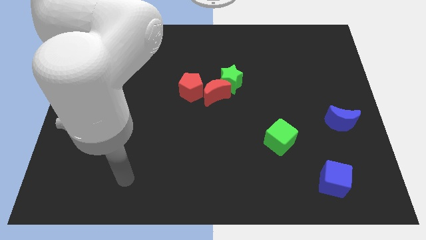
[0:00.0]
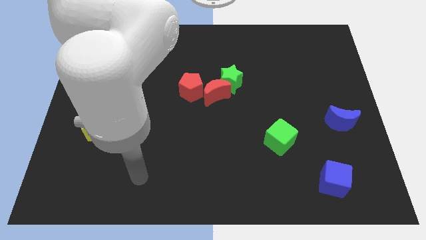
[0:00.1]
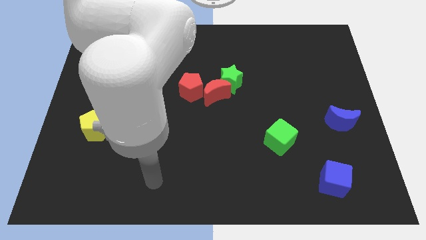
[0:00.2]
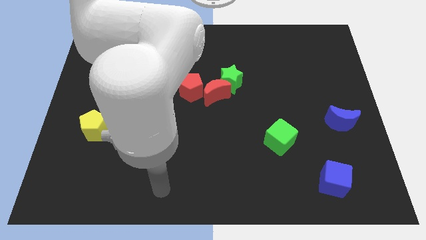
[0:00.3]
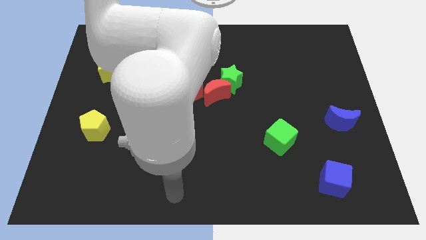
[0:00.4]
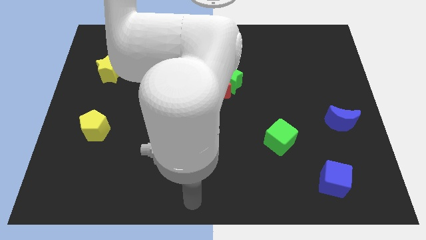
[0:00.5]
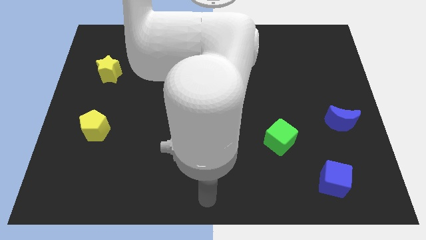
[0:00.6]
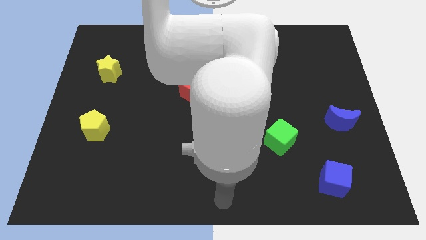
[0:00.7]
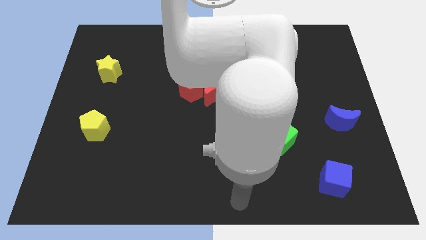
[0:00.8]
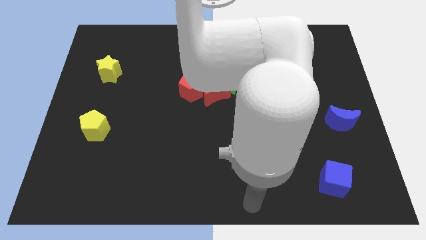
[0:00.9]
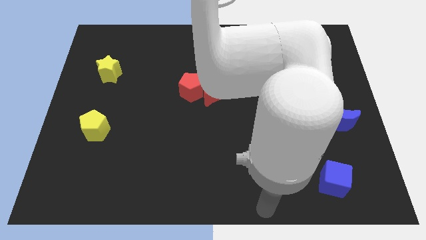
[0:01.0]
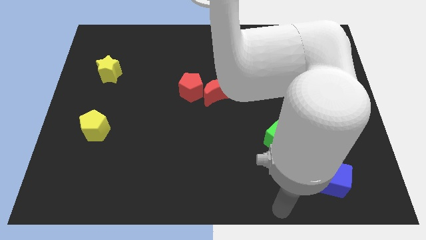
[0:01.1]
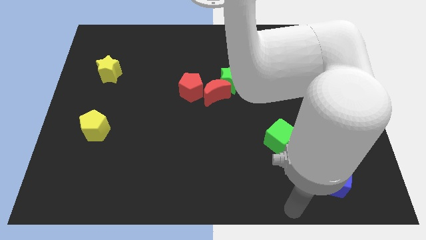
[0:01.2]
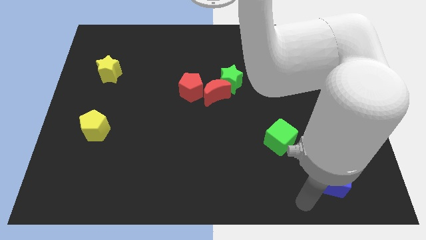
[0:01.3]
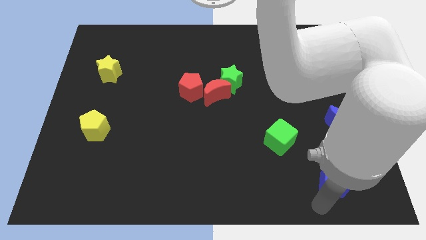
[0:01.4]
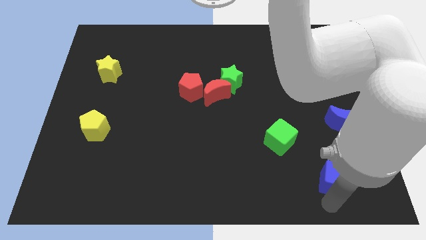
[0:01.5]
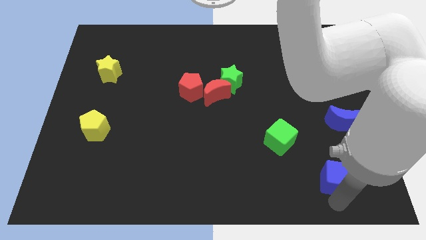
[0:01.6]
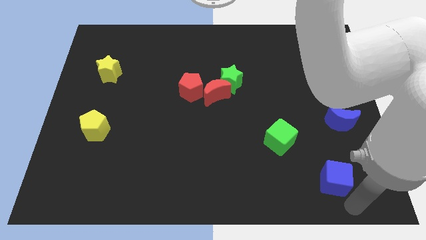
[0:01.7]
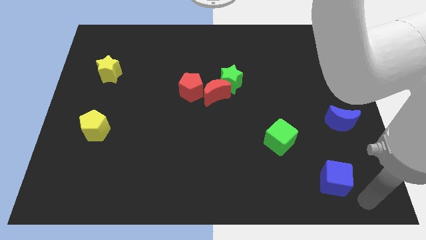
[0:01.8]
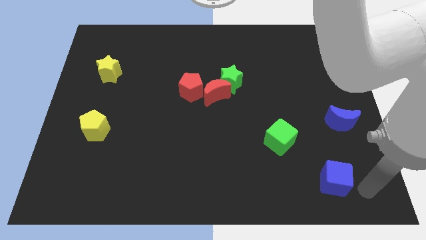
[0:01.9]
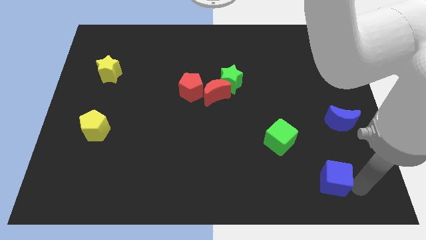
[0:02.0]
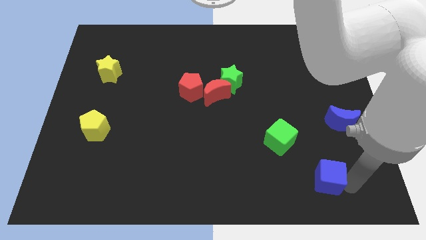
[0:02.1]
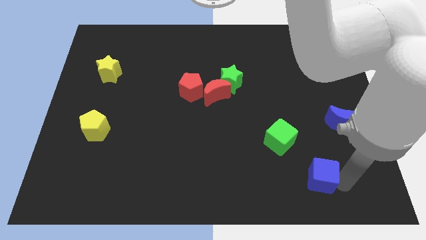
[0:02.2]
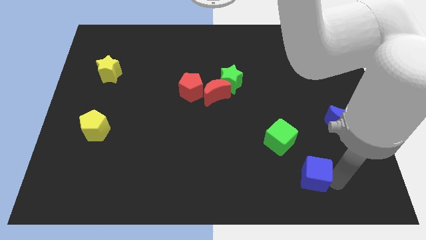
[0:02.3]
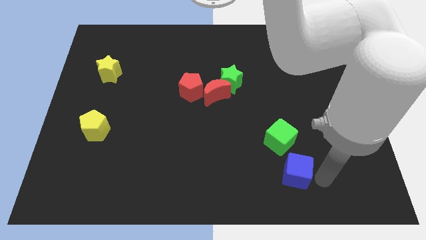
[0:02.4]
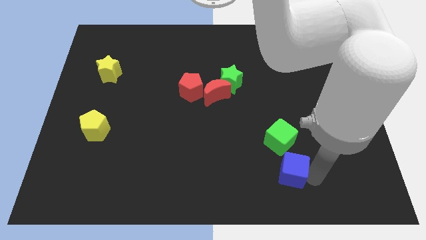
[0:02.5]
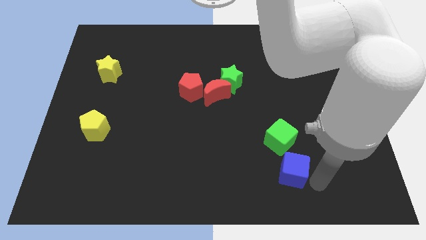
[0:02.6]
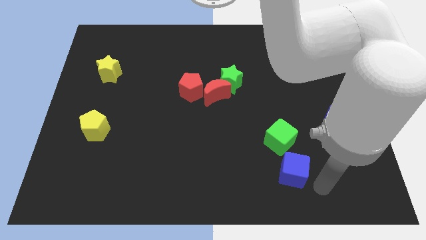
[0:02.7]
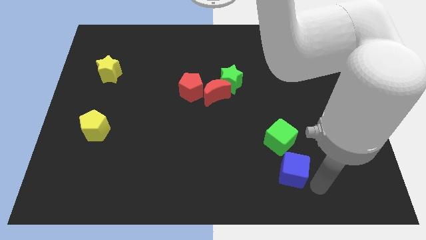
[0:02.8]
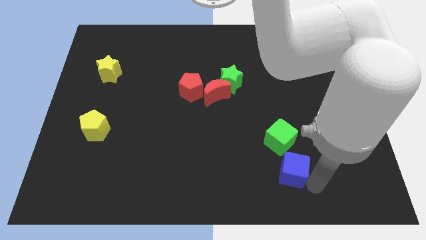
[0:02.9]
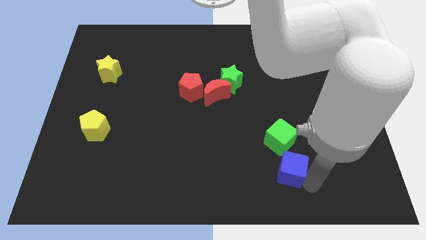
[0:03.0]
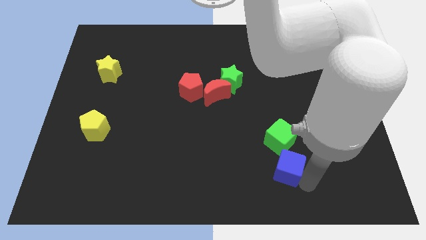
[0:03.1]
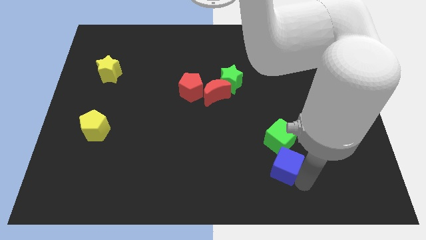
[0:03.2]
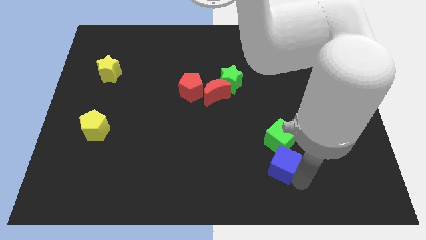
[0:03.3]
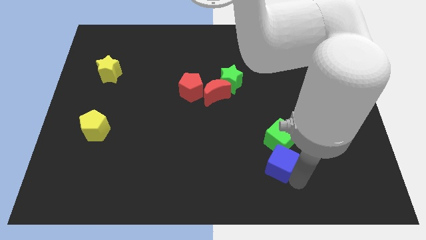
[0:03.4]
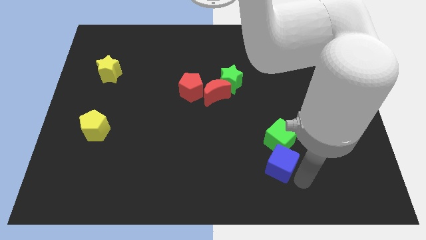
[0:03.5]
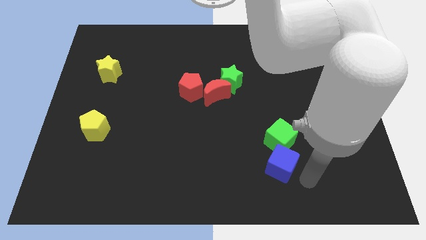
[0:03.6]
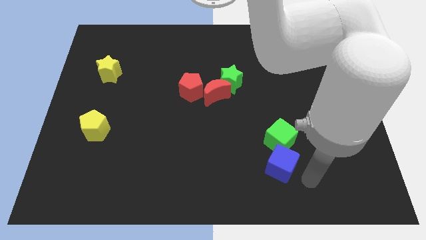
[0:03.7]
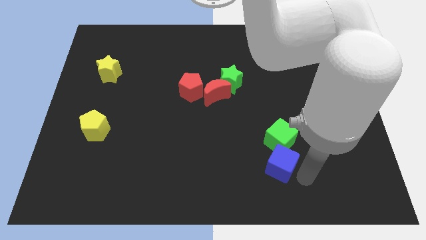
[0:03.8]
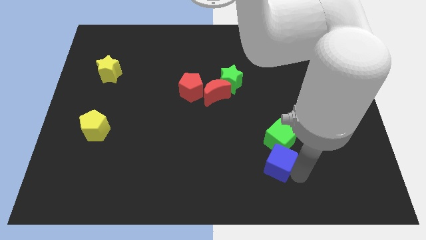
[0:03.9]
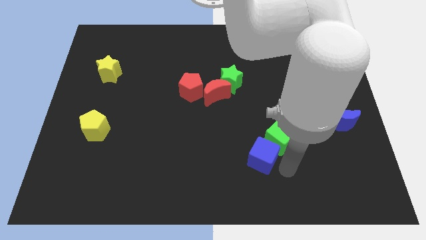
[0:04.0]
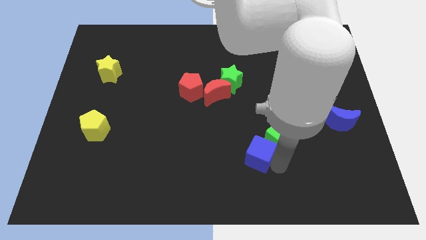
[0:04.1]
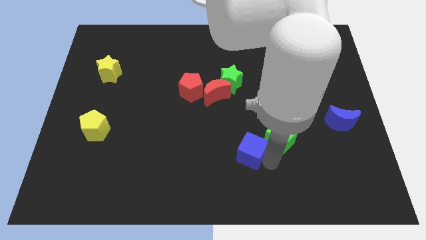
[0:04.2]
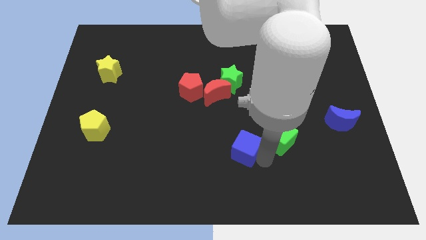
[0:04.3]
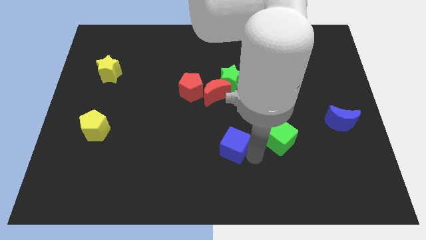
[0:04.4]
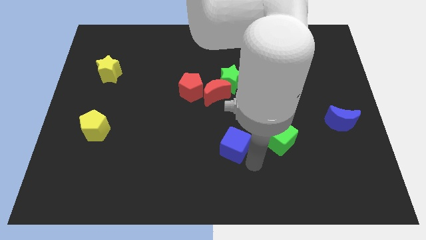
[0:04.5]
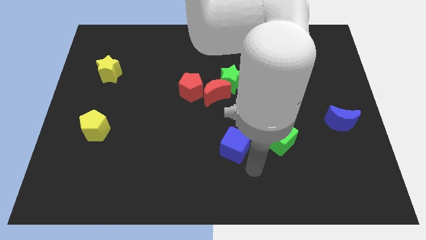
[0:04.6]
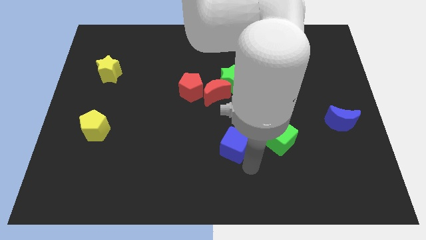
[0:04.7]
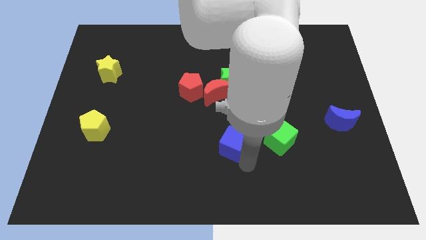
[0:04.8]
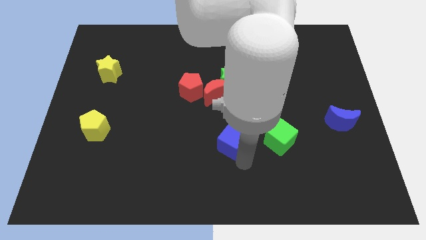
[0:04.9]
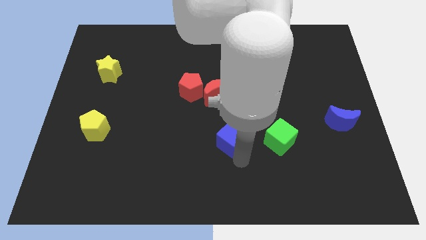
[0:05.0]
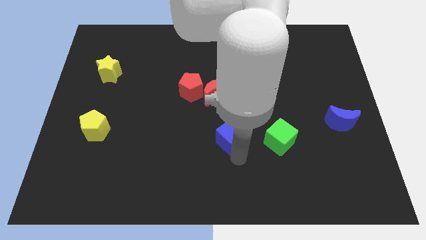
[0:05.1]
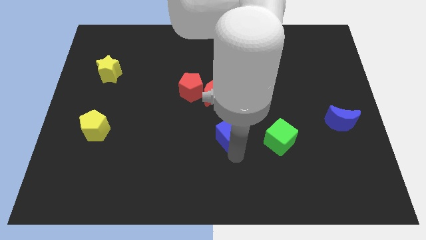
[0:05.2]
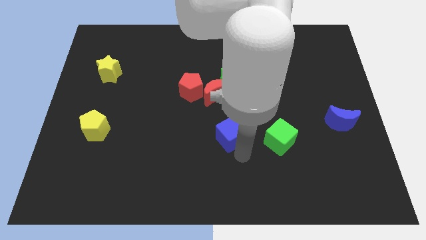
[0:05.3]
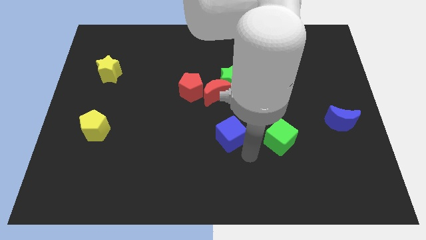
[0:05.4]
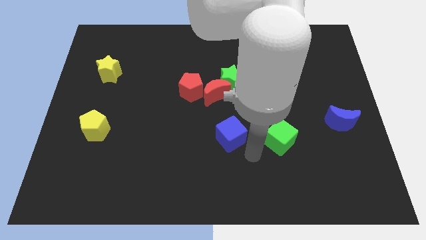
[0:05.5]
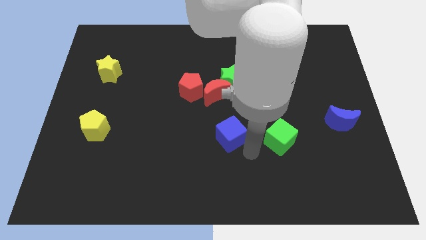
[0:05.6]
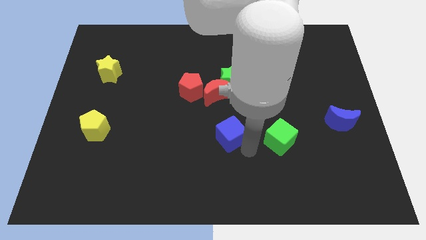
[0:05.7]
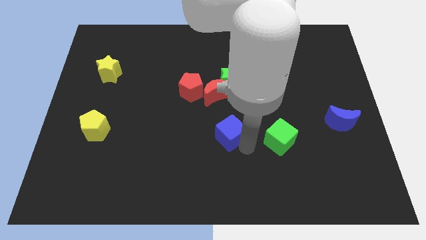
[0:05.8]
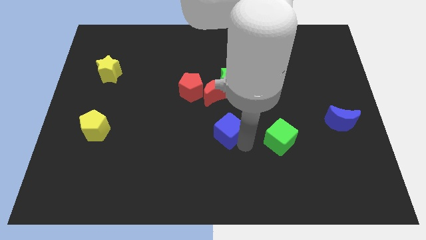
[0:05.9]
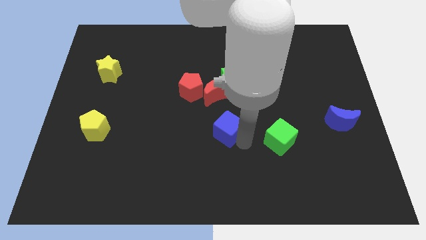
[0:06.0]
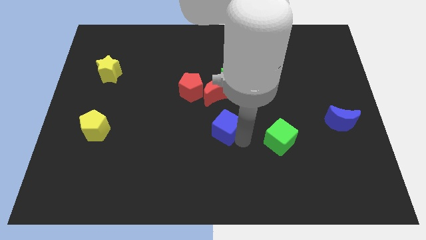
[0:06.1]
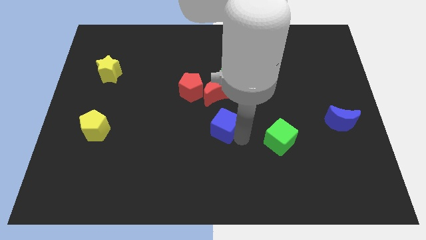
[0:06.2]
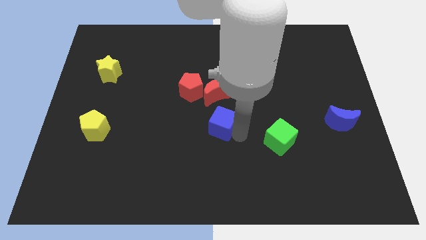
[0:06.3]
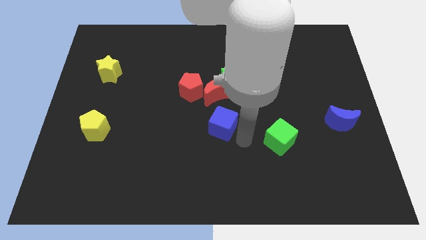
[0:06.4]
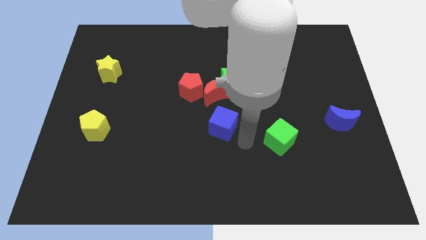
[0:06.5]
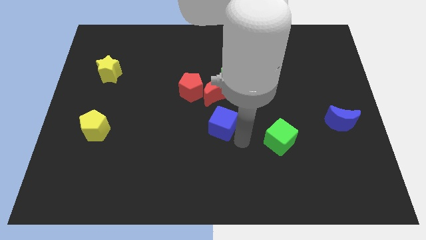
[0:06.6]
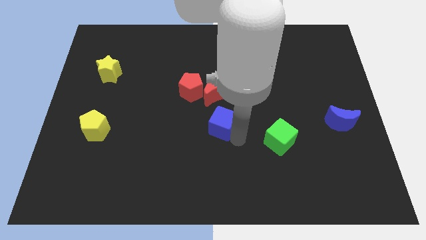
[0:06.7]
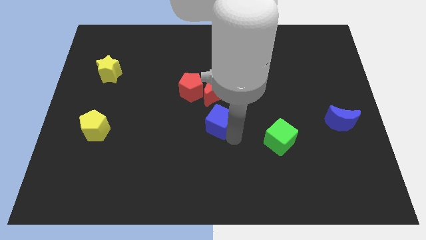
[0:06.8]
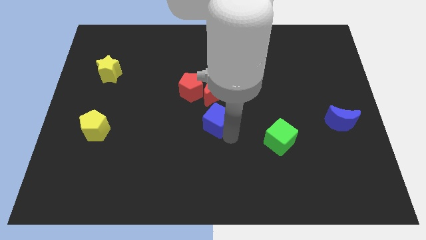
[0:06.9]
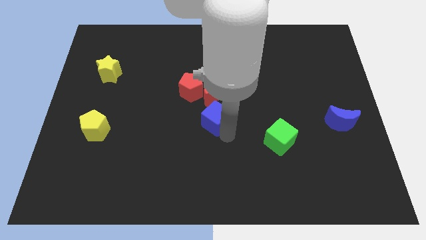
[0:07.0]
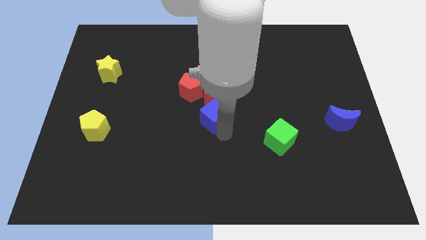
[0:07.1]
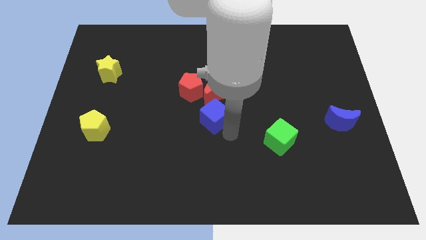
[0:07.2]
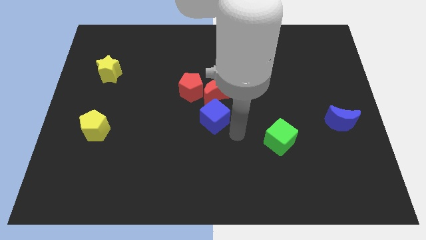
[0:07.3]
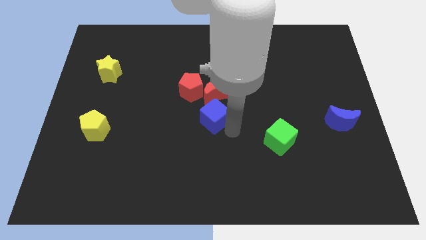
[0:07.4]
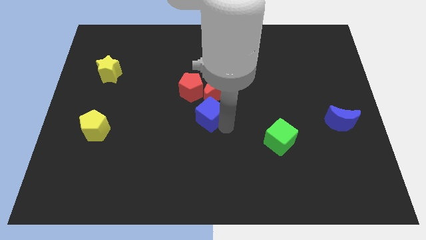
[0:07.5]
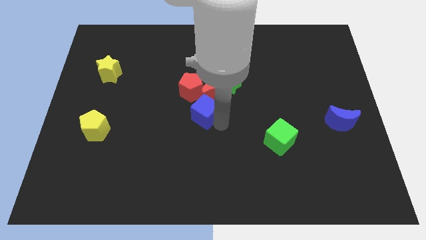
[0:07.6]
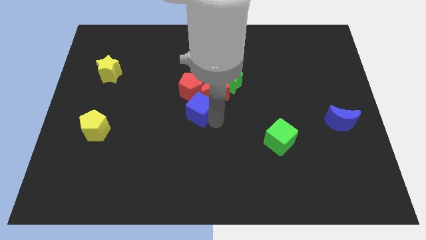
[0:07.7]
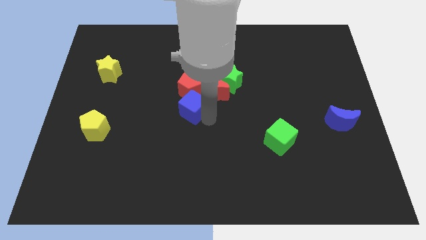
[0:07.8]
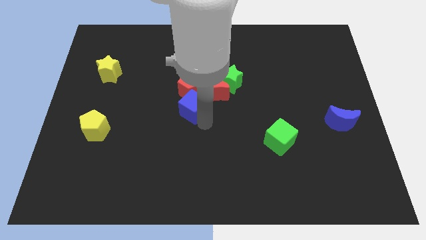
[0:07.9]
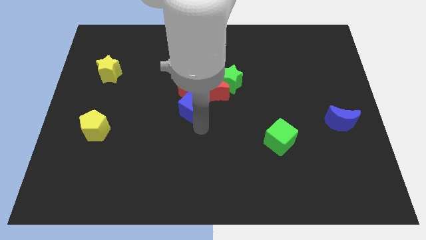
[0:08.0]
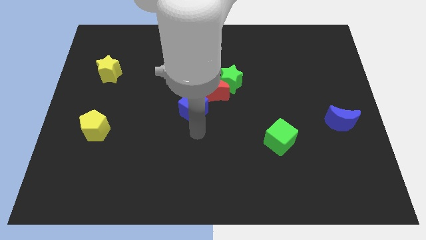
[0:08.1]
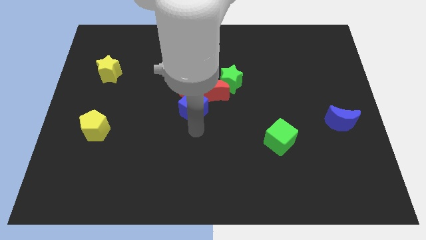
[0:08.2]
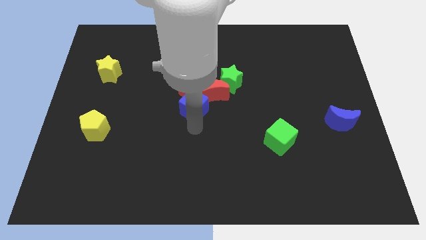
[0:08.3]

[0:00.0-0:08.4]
slide the blue cube next to the red pentagon
